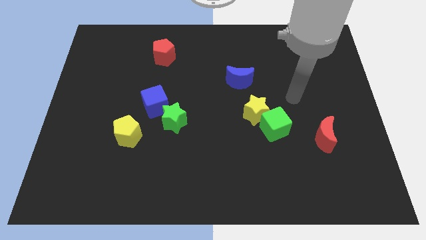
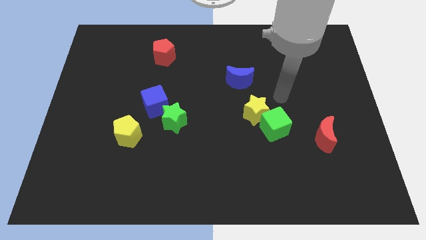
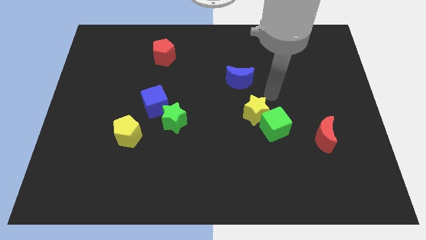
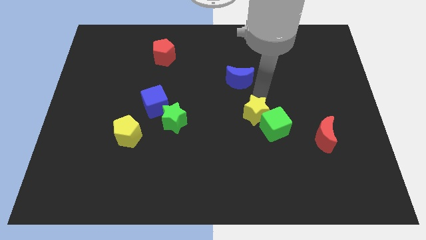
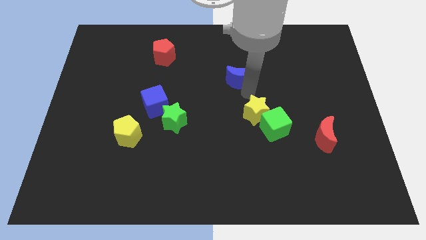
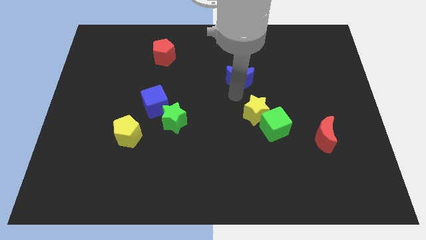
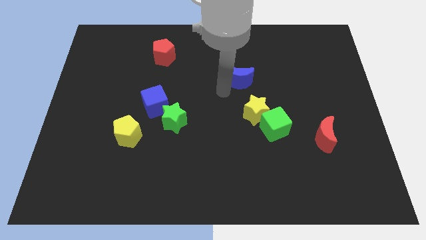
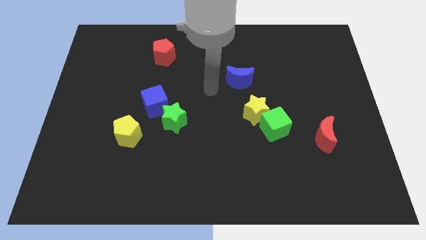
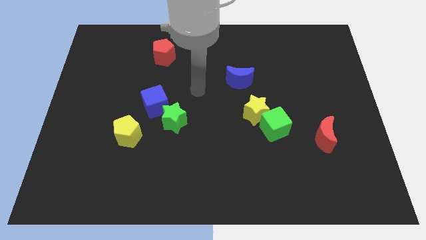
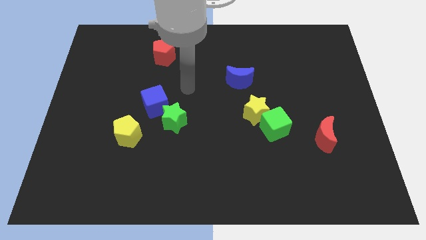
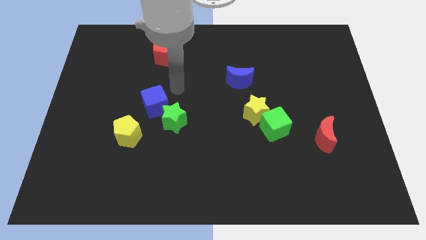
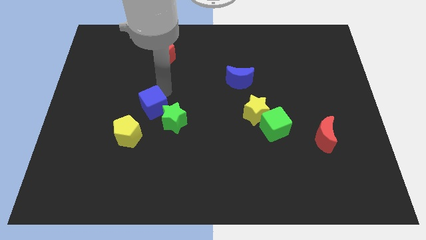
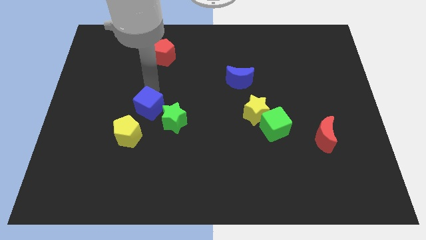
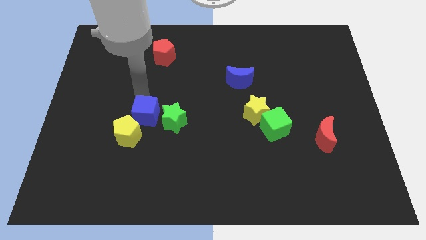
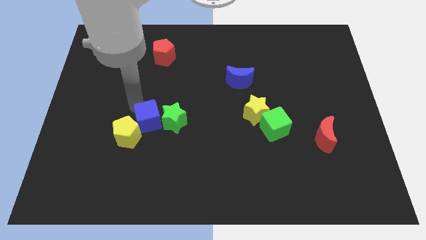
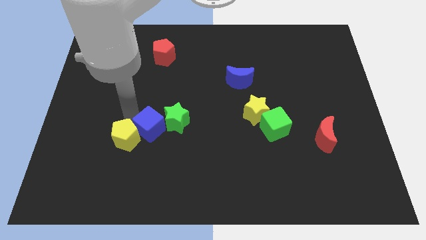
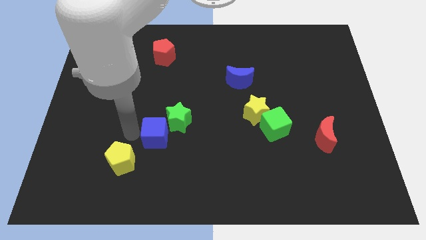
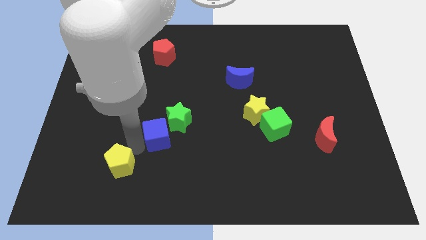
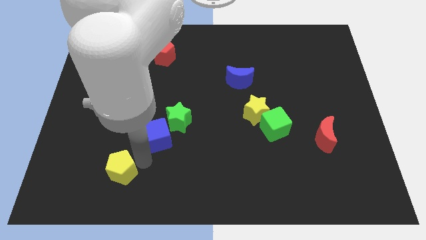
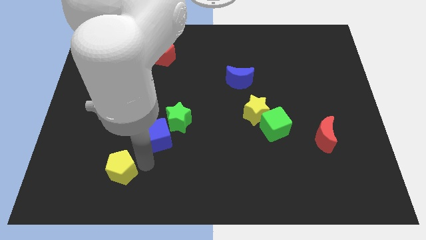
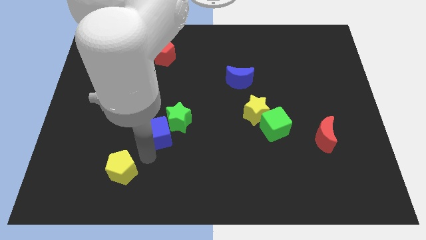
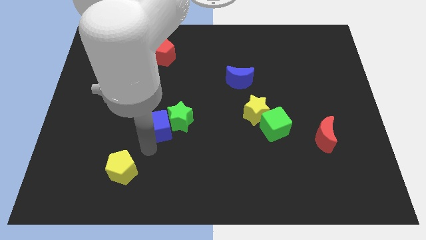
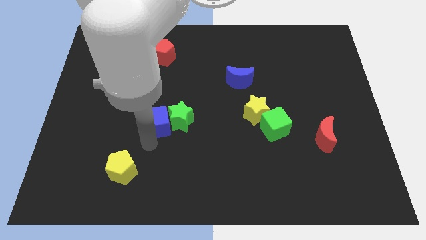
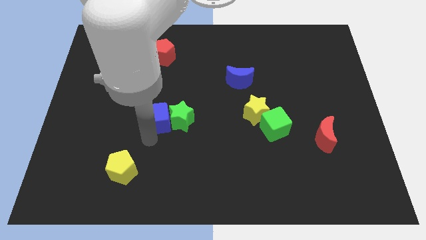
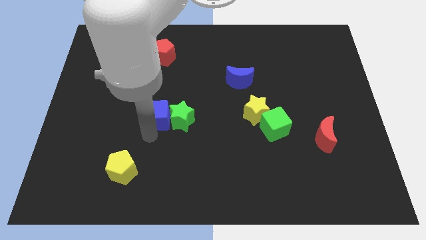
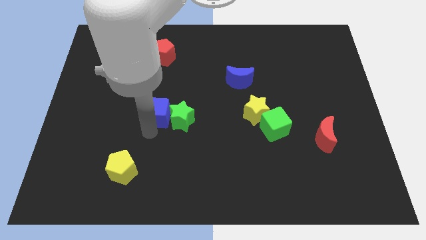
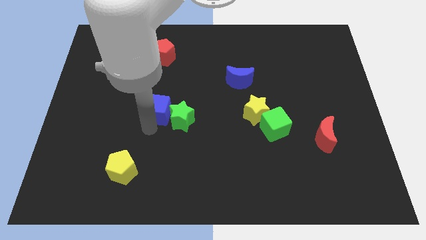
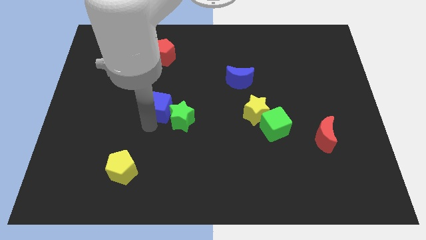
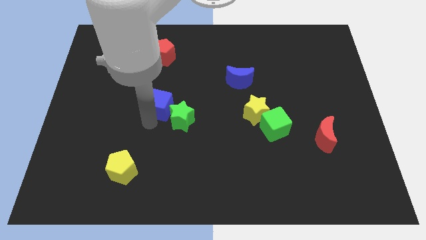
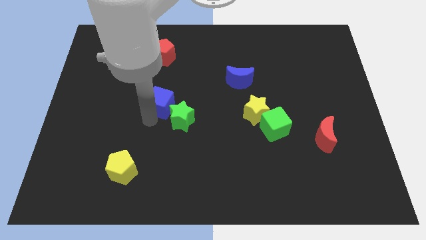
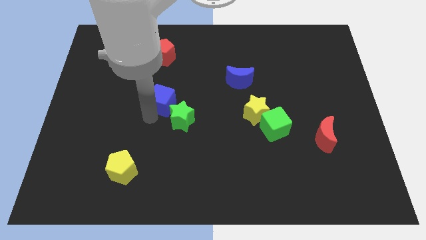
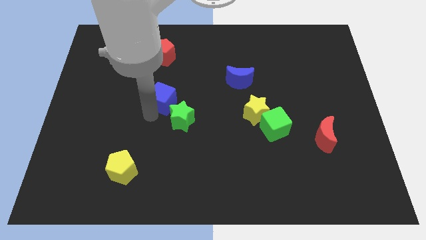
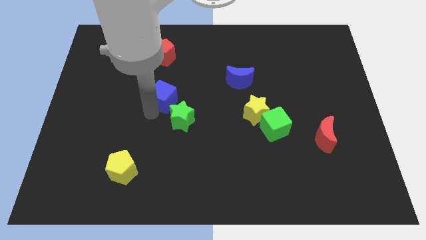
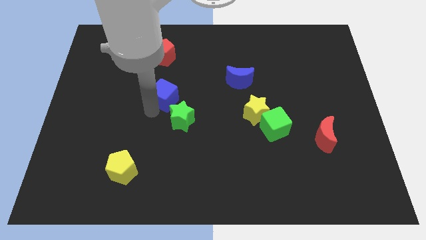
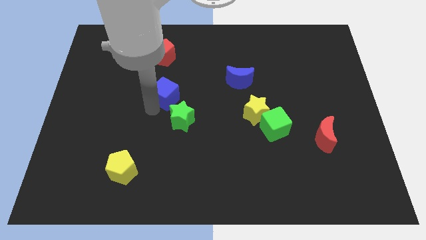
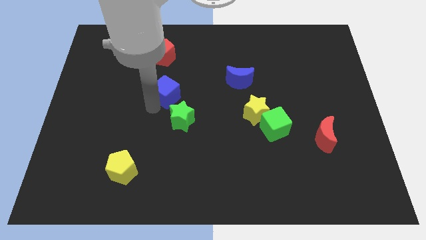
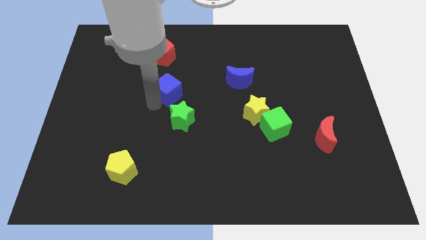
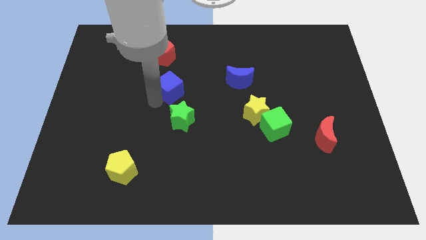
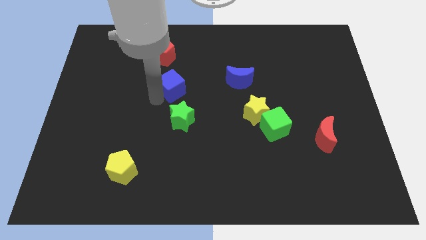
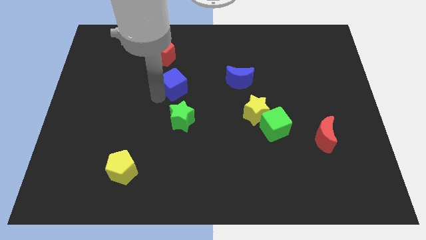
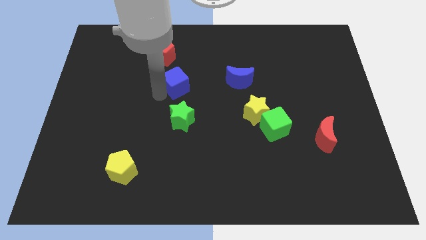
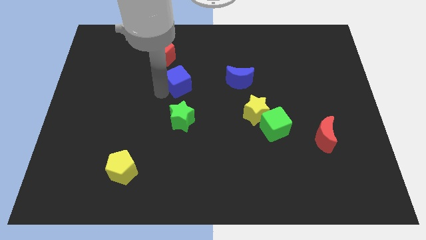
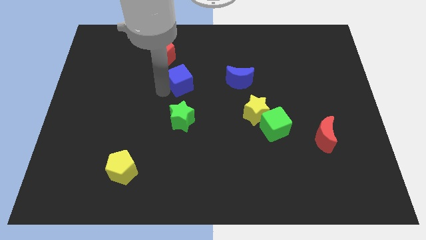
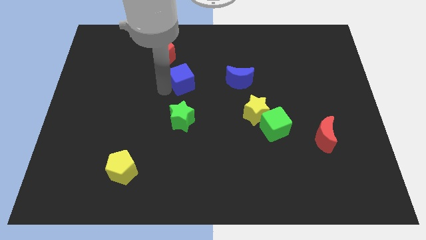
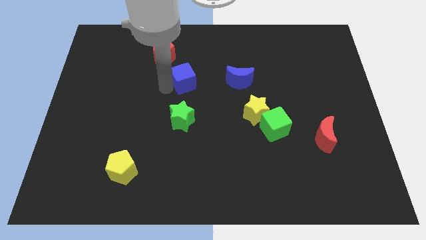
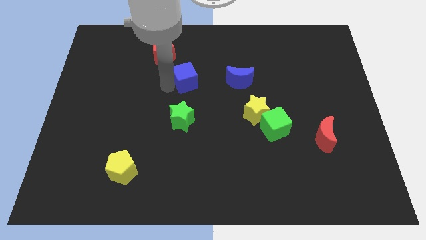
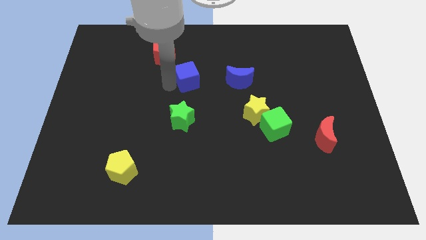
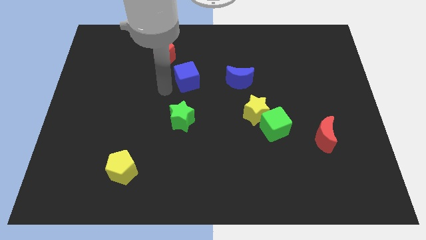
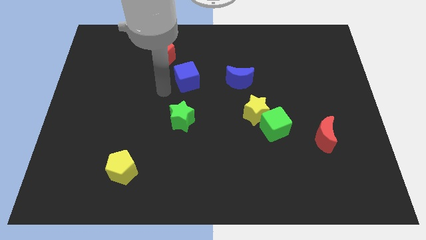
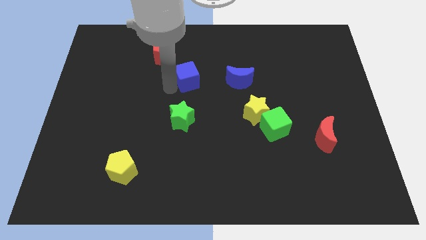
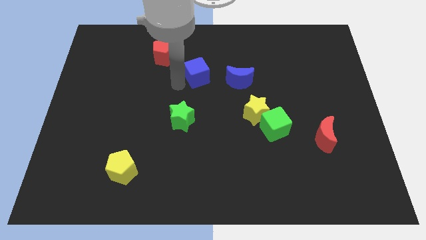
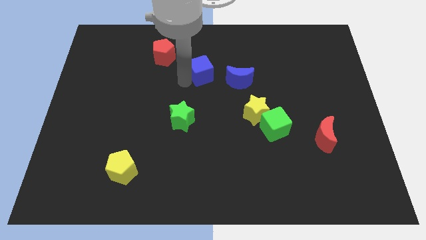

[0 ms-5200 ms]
slide the blue cube to the top left of the blue moon

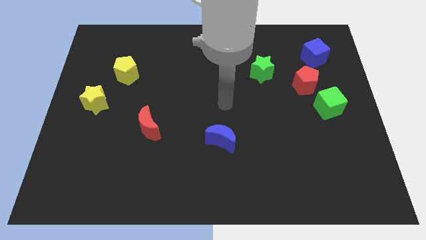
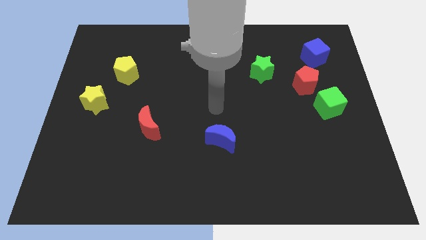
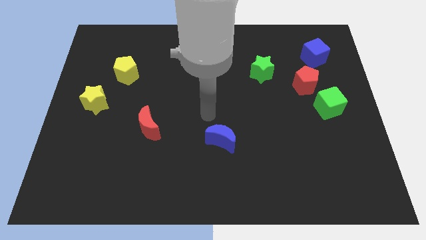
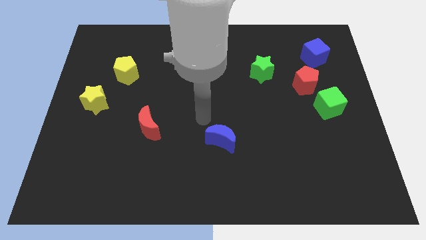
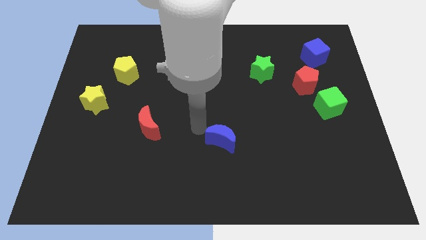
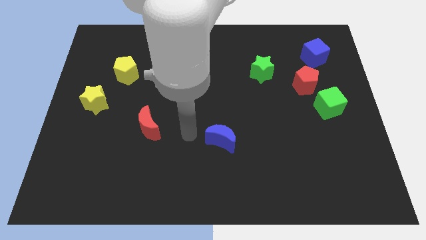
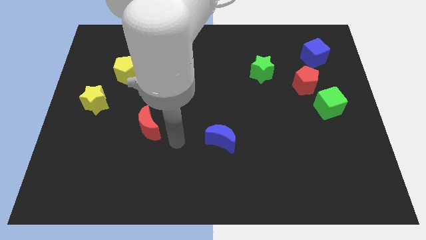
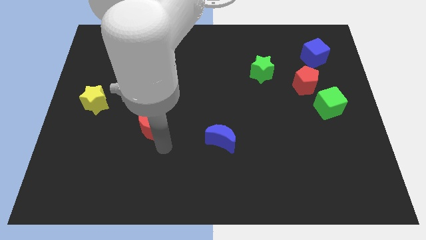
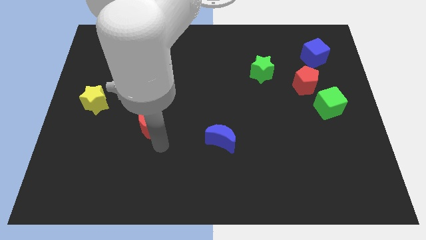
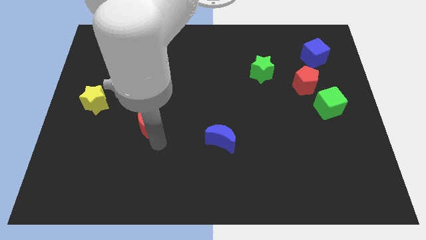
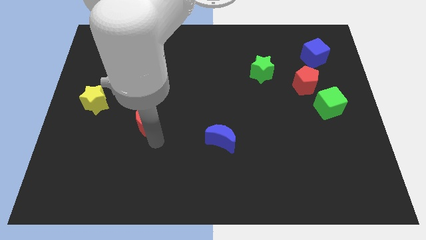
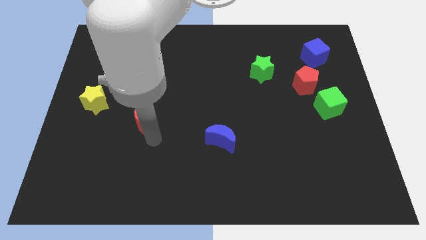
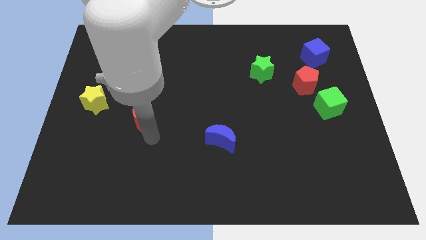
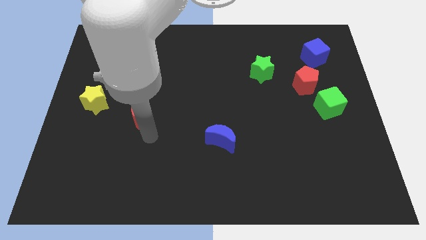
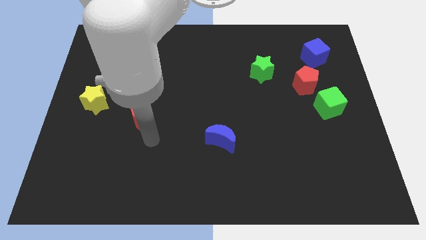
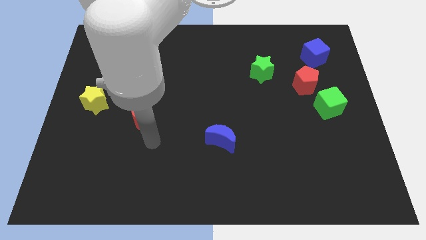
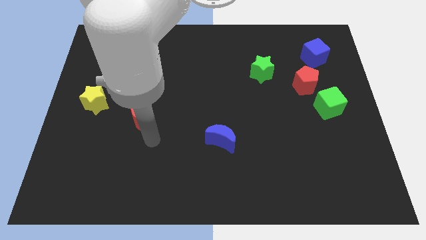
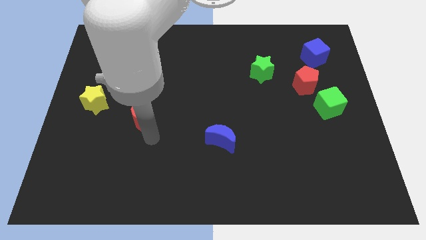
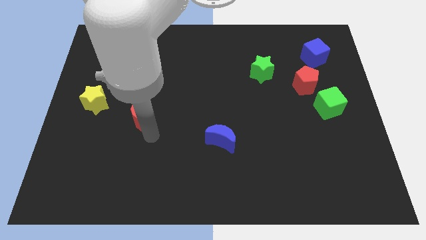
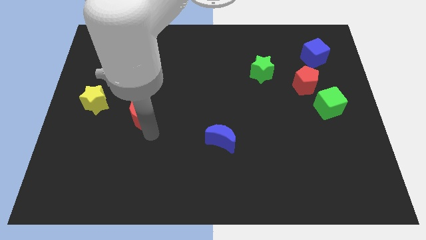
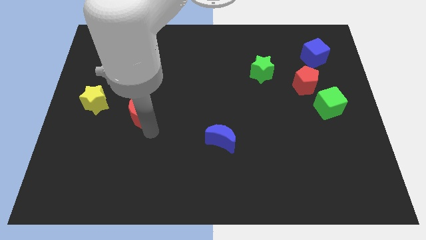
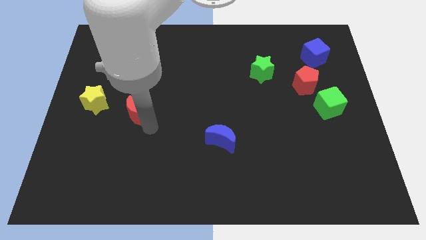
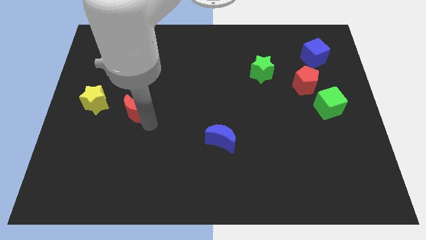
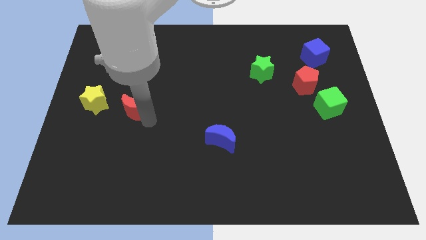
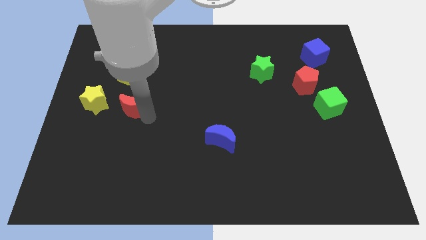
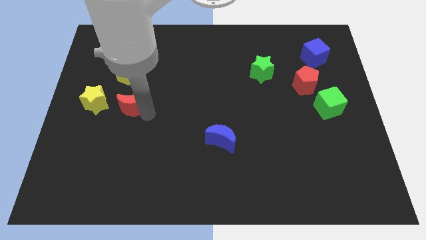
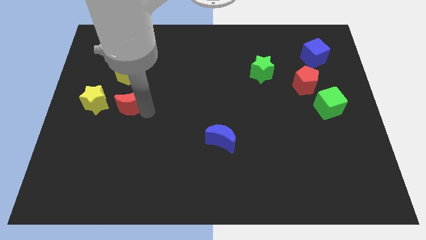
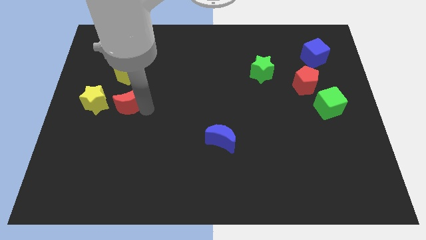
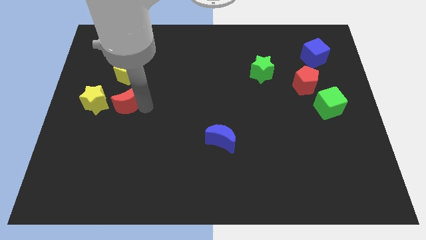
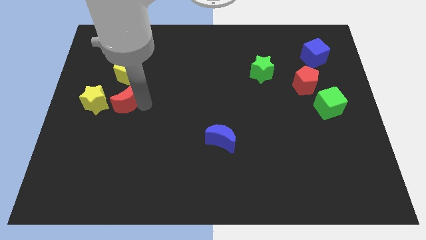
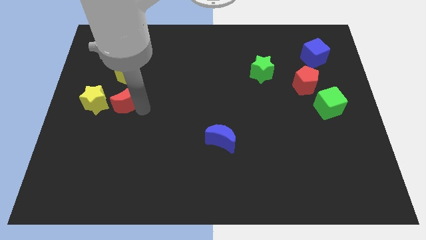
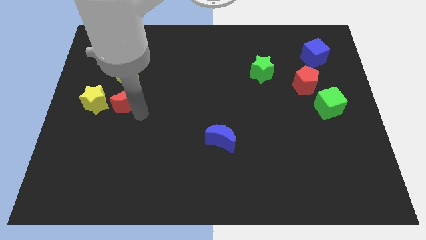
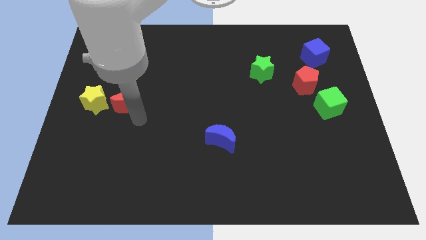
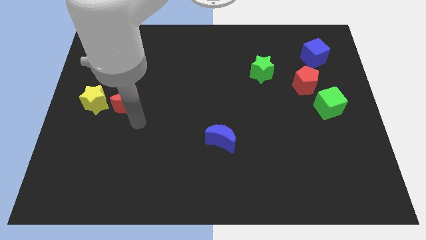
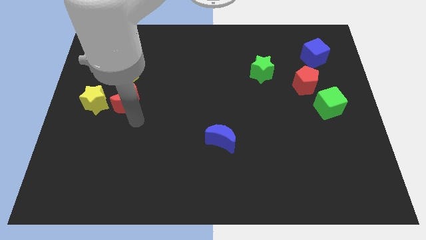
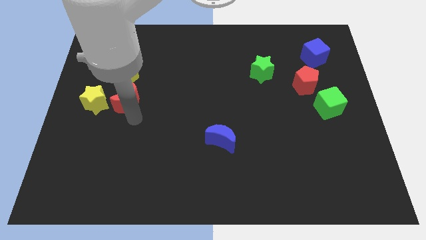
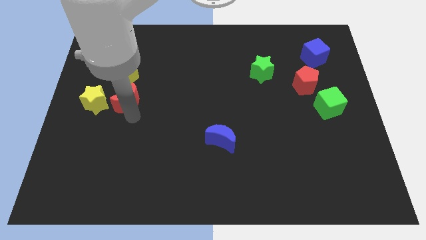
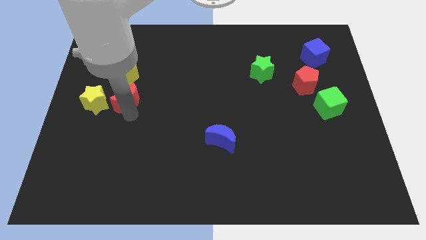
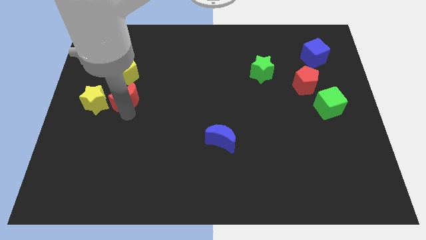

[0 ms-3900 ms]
push the red moon to the top right side of the yellow star
